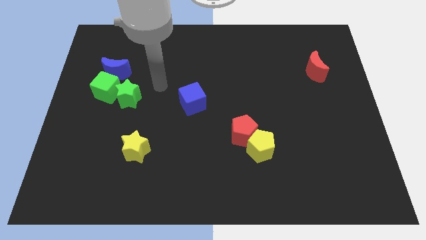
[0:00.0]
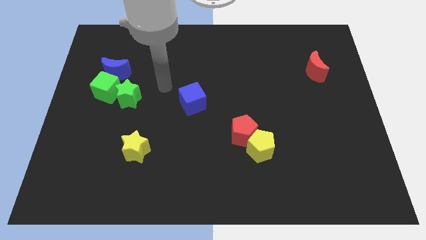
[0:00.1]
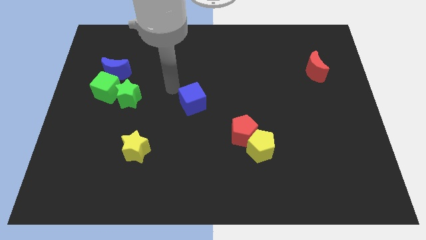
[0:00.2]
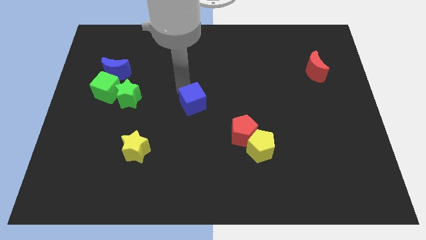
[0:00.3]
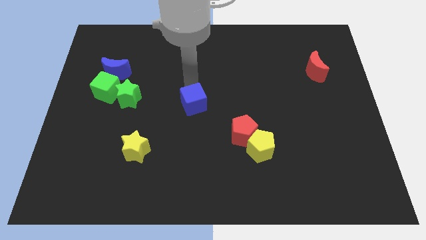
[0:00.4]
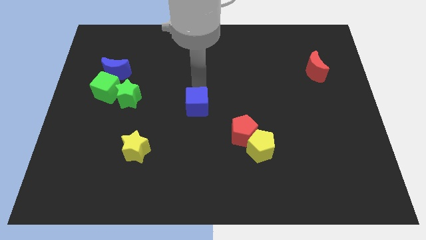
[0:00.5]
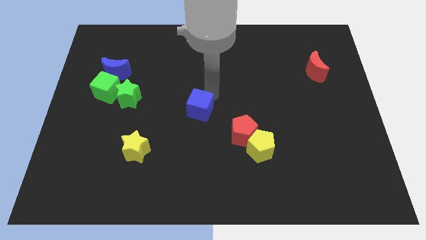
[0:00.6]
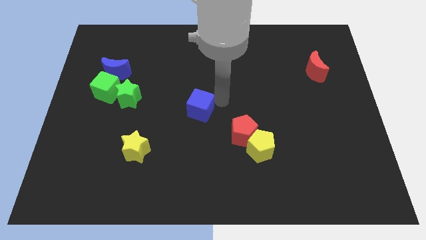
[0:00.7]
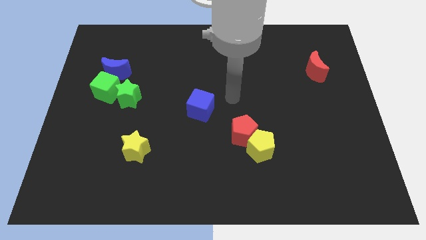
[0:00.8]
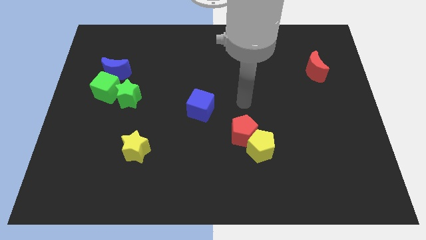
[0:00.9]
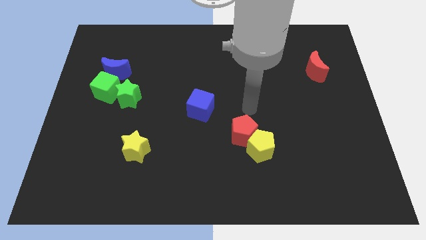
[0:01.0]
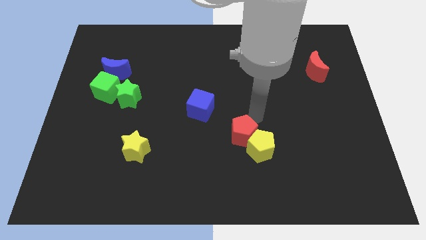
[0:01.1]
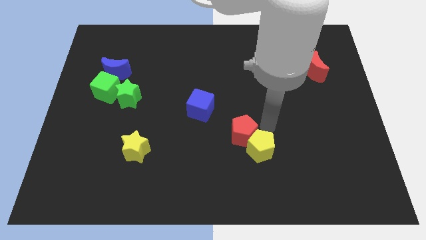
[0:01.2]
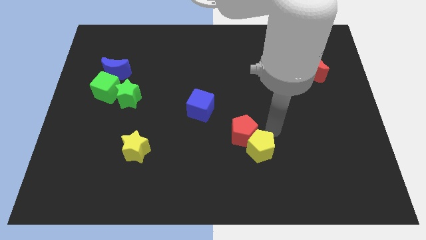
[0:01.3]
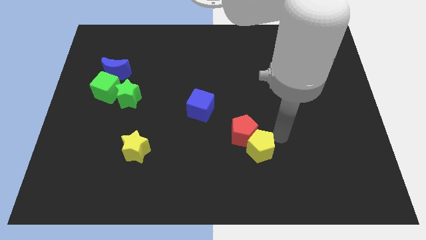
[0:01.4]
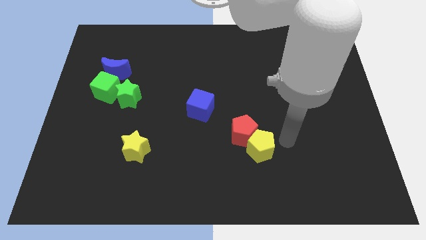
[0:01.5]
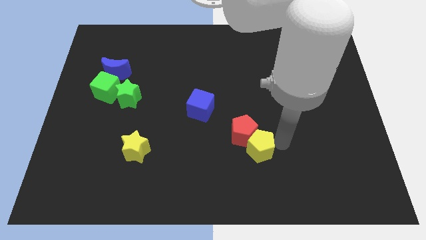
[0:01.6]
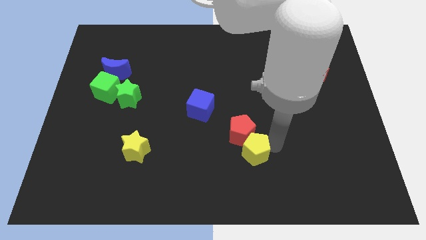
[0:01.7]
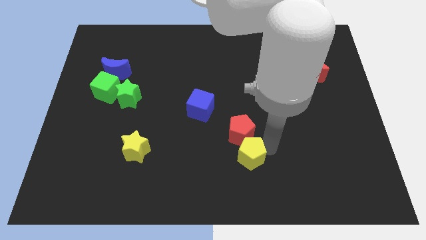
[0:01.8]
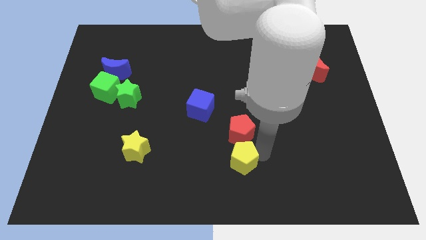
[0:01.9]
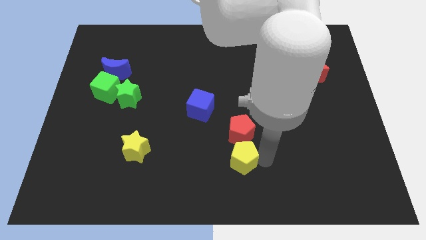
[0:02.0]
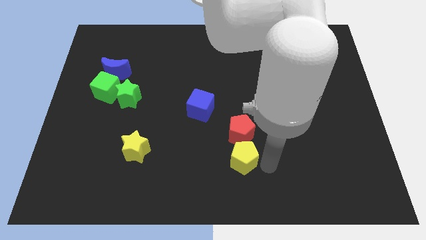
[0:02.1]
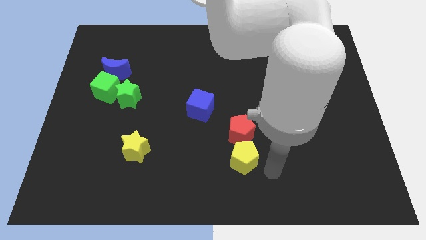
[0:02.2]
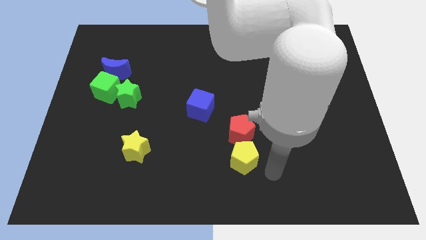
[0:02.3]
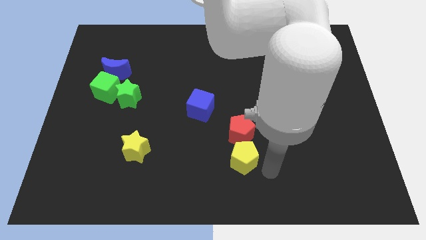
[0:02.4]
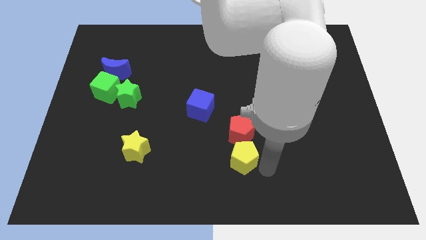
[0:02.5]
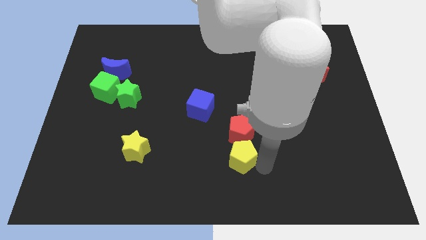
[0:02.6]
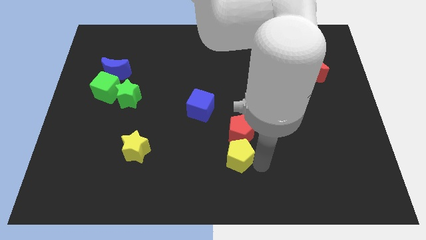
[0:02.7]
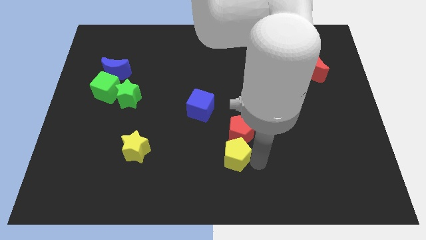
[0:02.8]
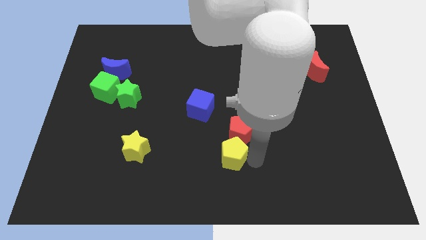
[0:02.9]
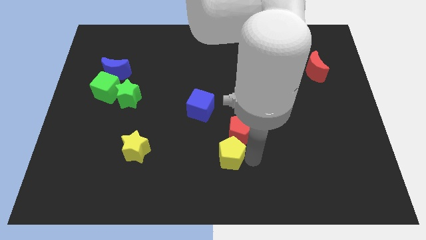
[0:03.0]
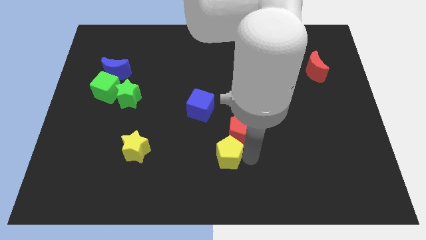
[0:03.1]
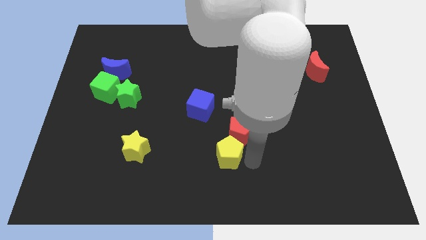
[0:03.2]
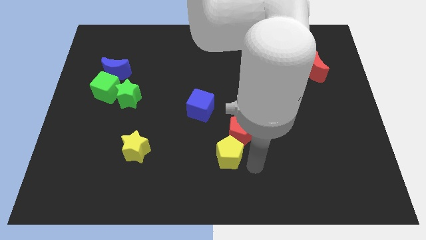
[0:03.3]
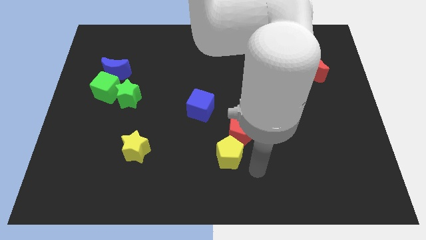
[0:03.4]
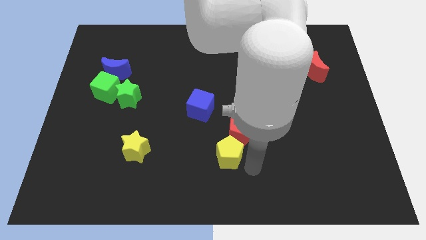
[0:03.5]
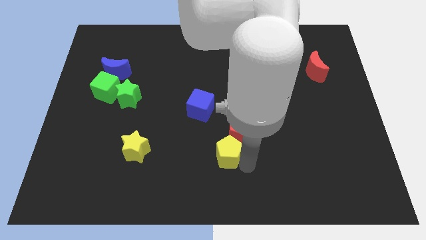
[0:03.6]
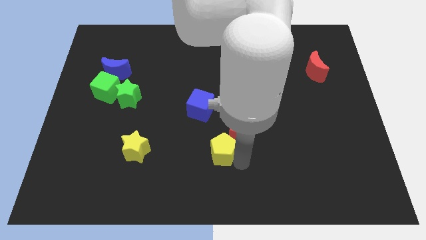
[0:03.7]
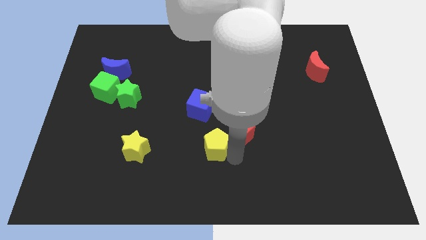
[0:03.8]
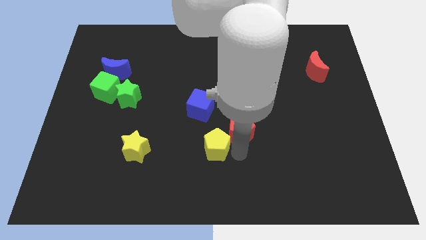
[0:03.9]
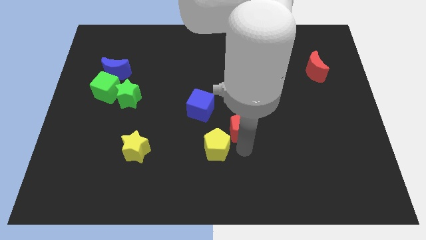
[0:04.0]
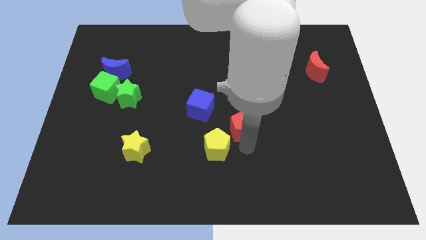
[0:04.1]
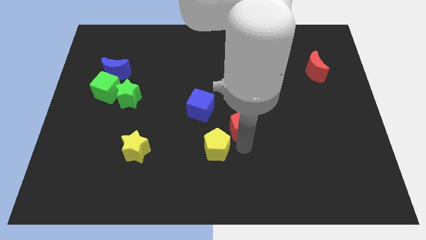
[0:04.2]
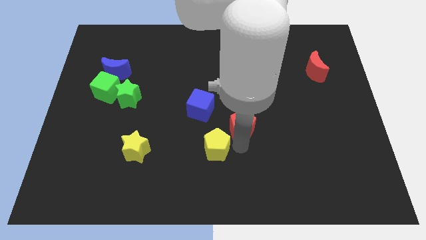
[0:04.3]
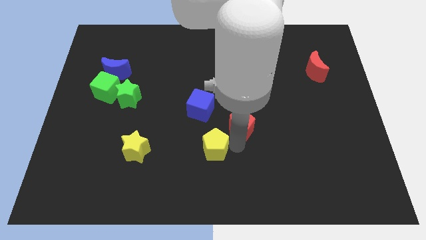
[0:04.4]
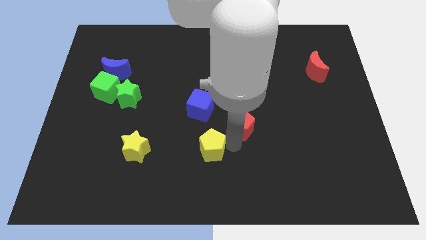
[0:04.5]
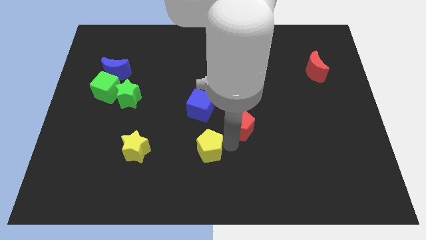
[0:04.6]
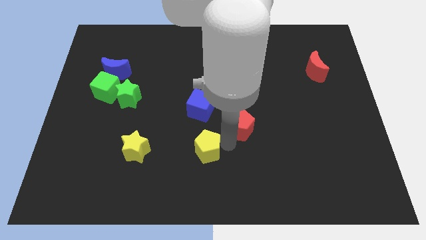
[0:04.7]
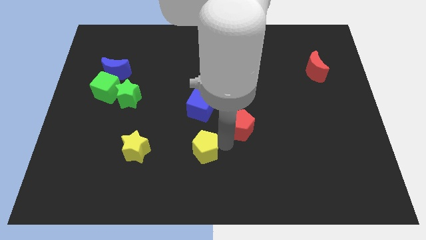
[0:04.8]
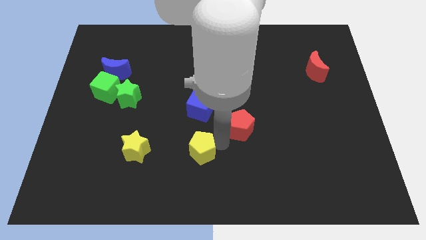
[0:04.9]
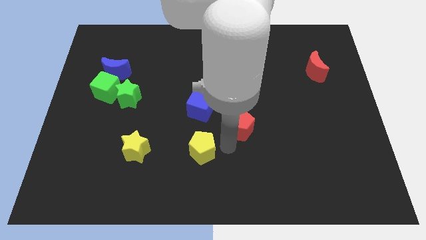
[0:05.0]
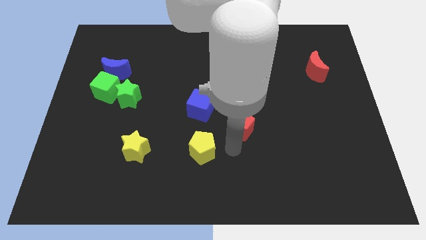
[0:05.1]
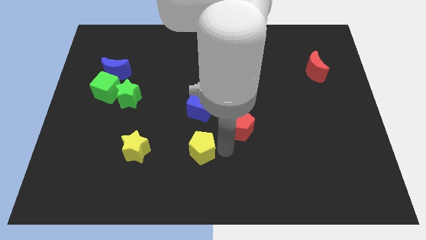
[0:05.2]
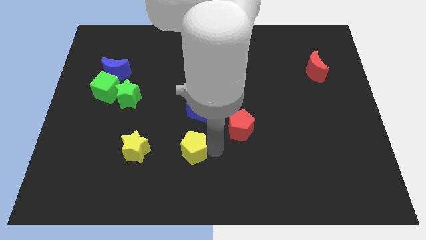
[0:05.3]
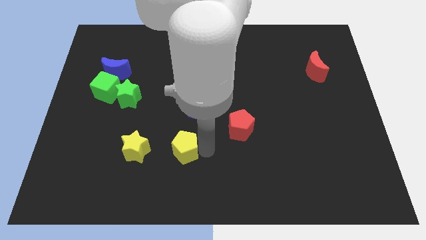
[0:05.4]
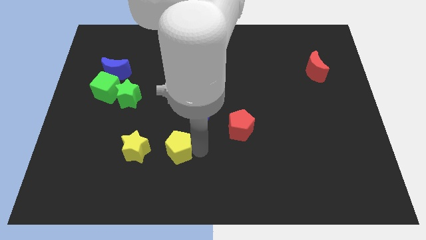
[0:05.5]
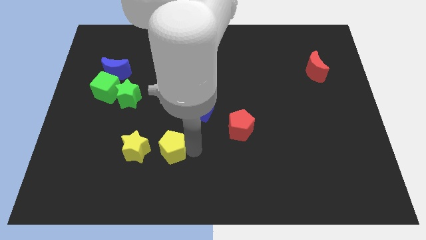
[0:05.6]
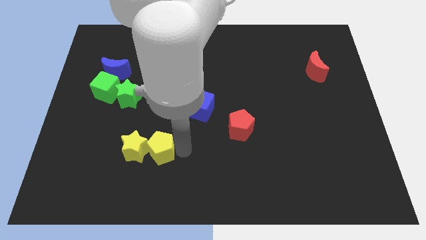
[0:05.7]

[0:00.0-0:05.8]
move the yellow pentagon to the yellow star
